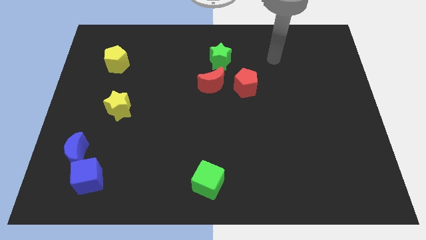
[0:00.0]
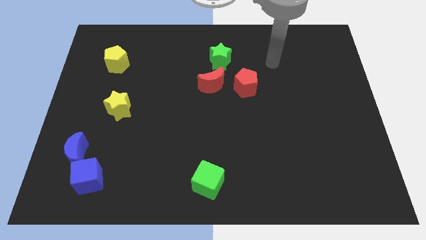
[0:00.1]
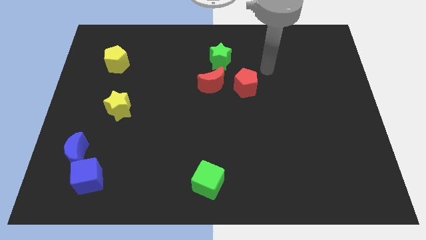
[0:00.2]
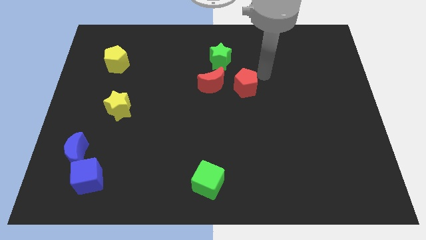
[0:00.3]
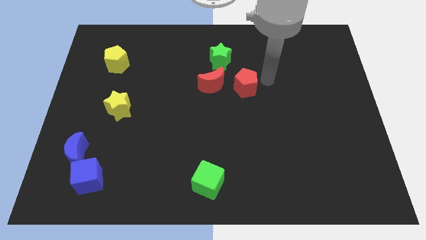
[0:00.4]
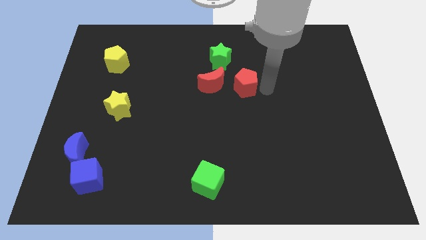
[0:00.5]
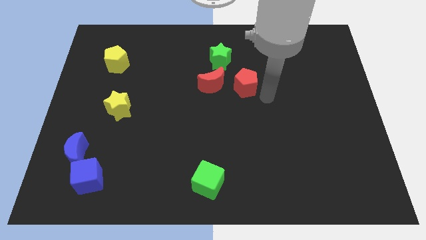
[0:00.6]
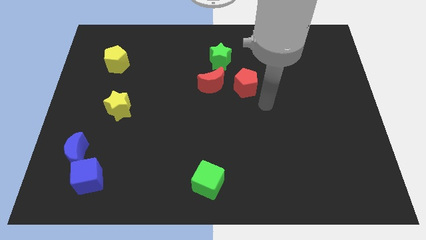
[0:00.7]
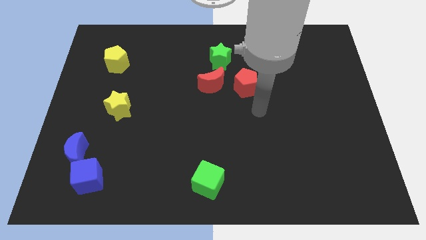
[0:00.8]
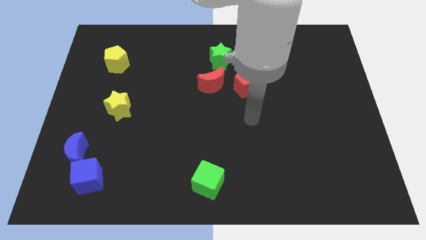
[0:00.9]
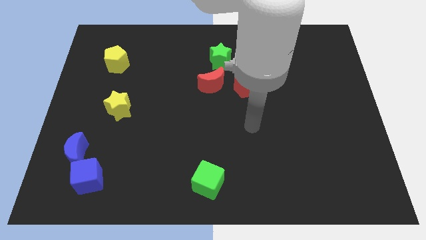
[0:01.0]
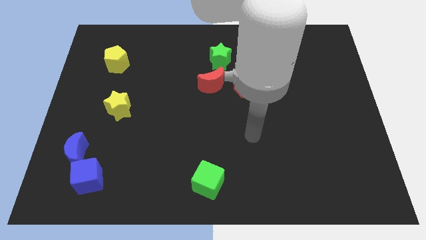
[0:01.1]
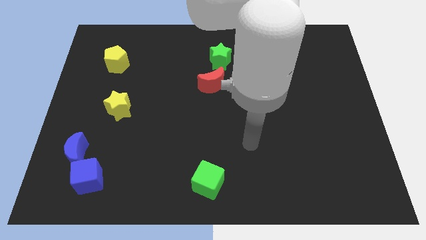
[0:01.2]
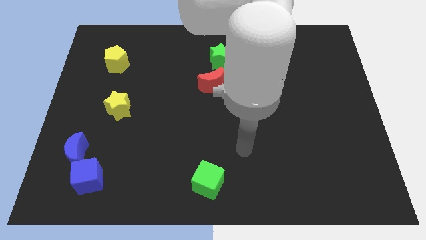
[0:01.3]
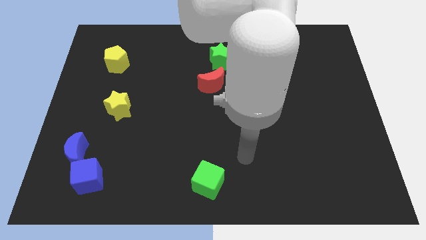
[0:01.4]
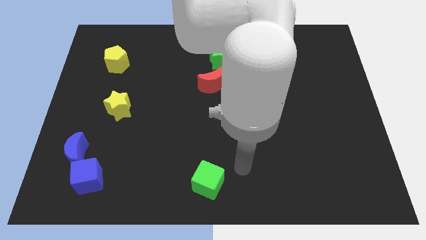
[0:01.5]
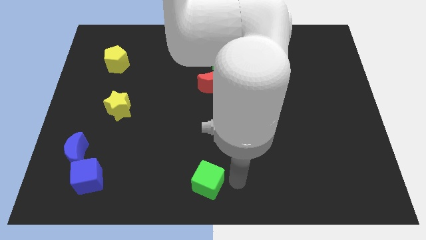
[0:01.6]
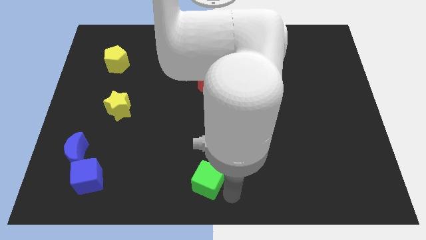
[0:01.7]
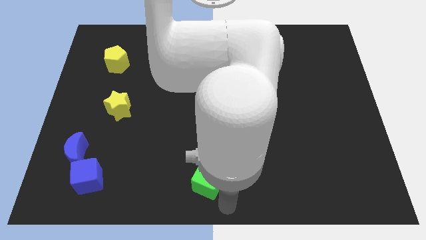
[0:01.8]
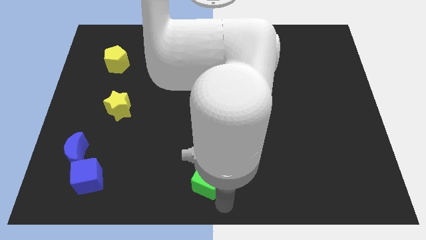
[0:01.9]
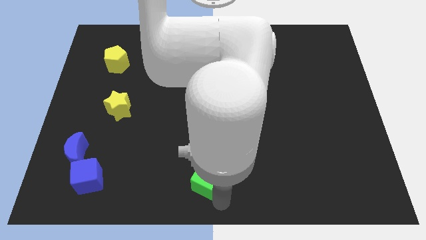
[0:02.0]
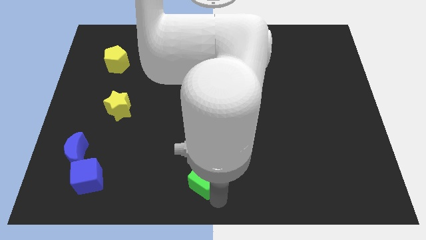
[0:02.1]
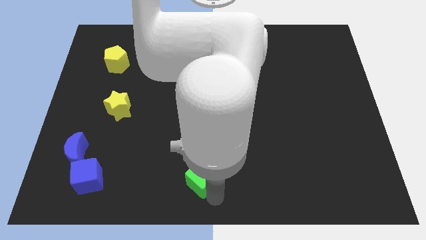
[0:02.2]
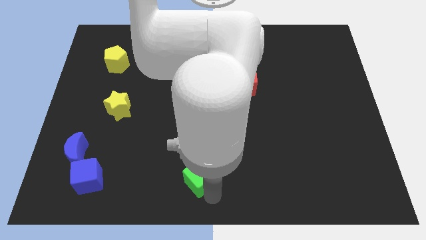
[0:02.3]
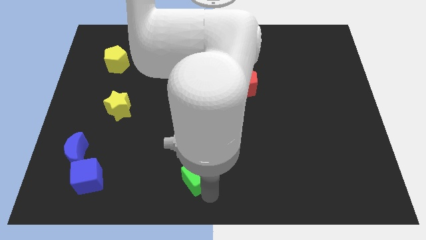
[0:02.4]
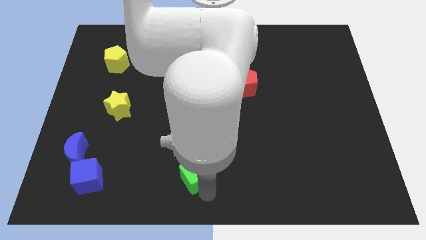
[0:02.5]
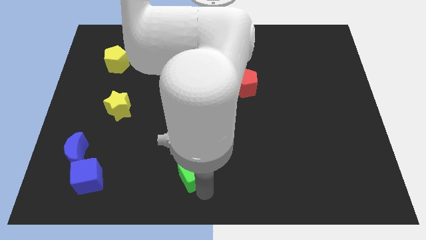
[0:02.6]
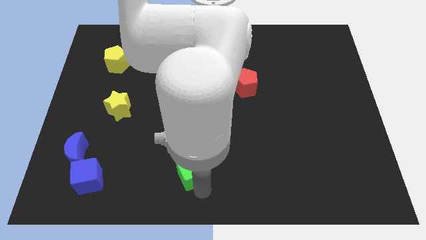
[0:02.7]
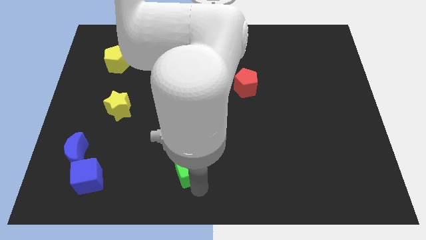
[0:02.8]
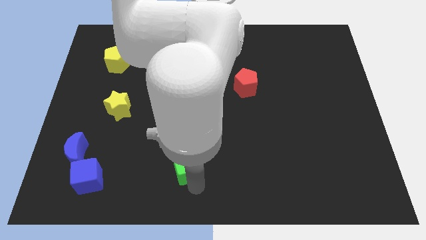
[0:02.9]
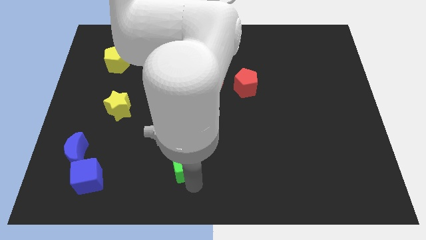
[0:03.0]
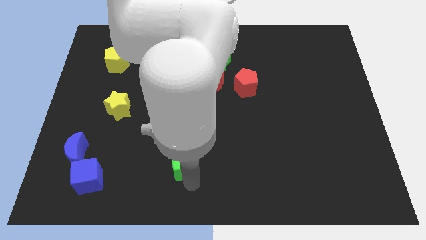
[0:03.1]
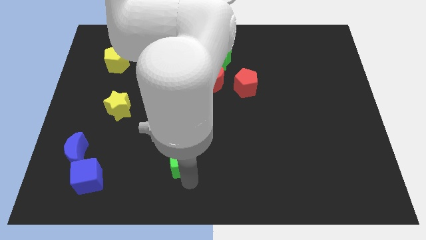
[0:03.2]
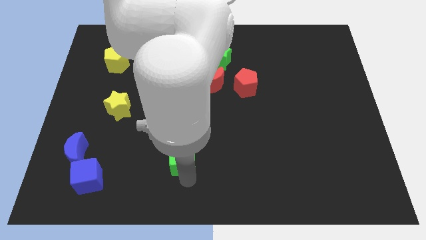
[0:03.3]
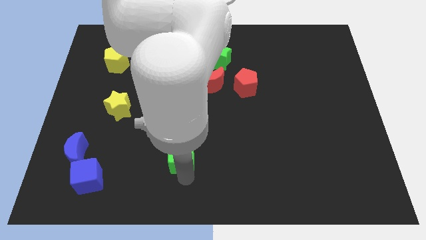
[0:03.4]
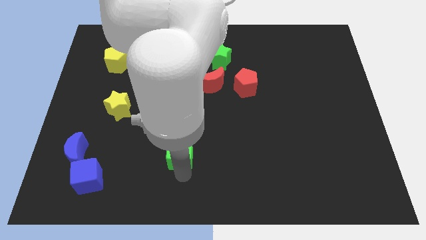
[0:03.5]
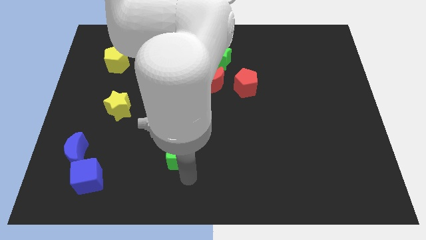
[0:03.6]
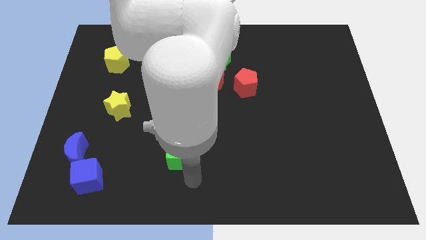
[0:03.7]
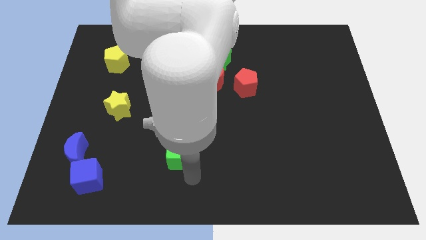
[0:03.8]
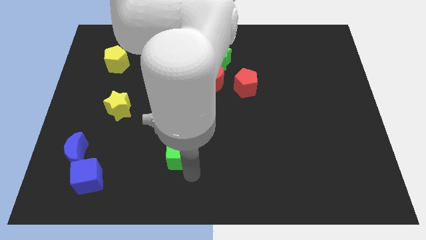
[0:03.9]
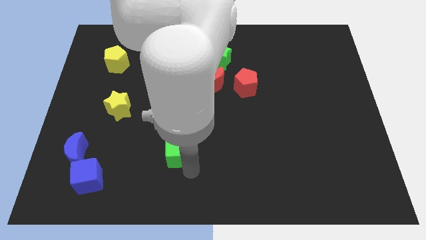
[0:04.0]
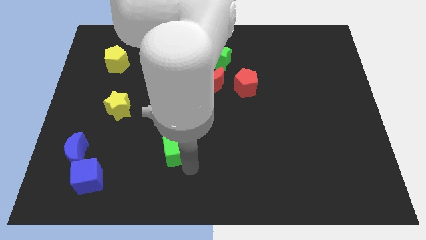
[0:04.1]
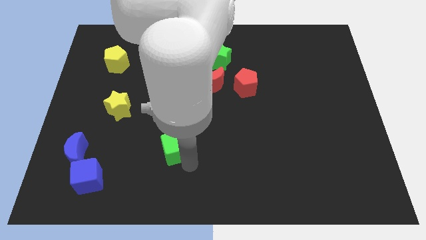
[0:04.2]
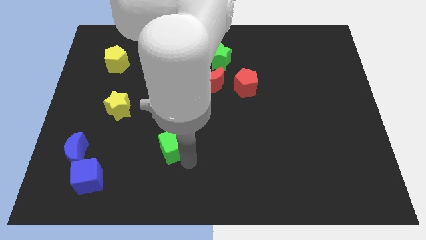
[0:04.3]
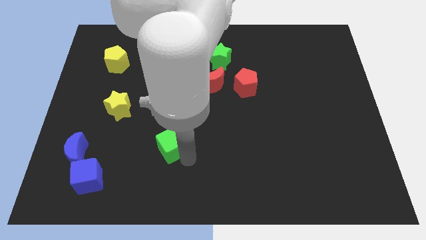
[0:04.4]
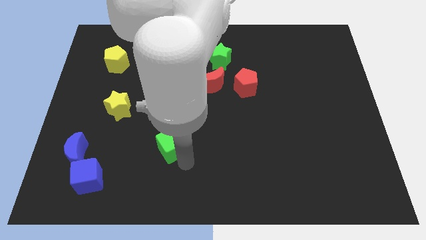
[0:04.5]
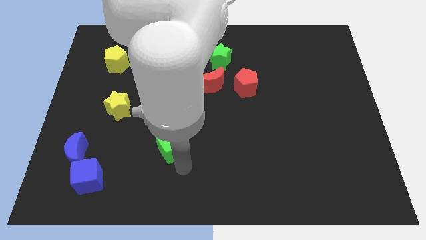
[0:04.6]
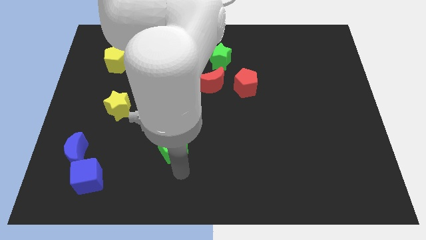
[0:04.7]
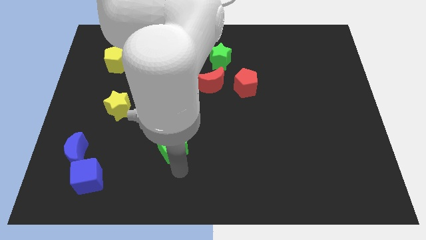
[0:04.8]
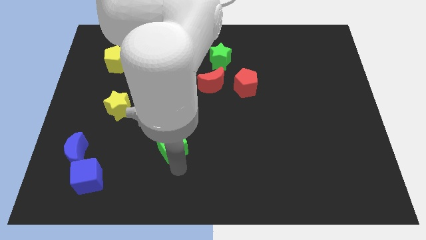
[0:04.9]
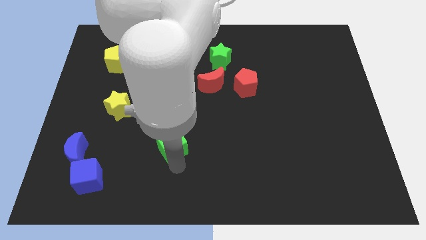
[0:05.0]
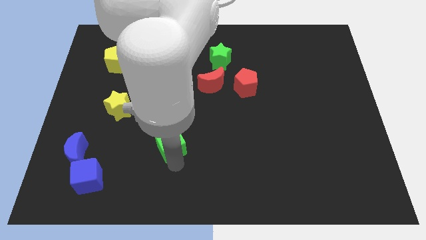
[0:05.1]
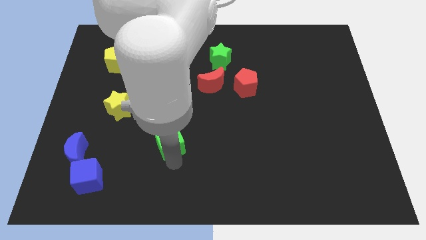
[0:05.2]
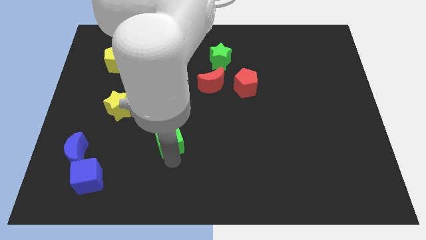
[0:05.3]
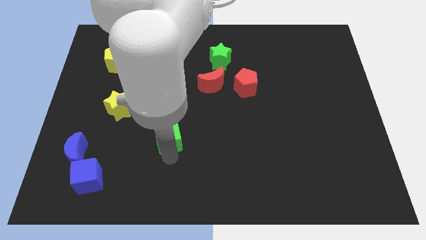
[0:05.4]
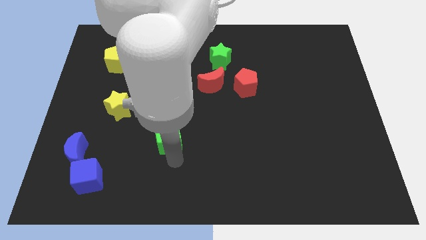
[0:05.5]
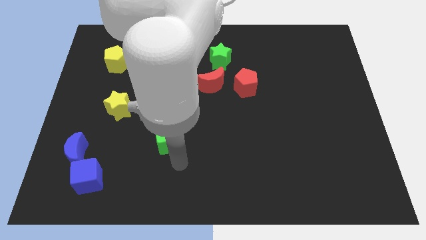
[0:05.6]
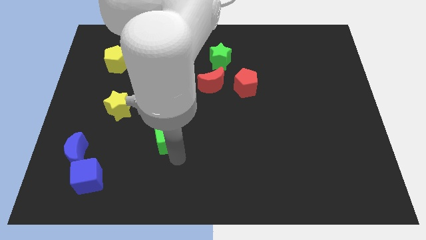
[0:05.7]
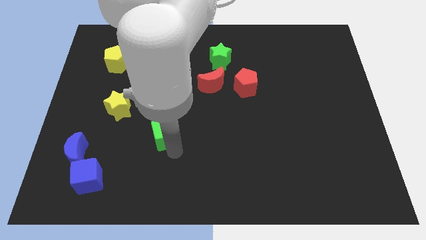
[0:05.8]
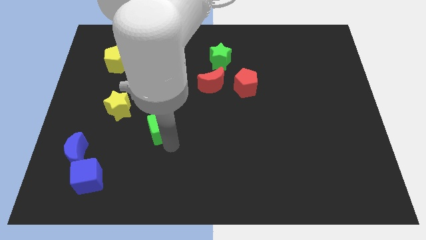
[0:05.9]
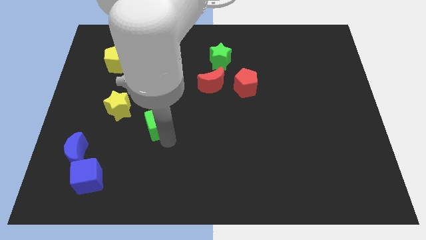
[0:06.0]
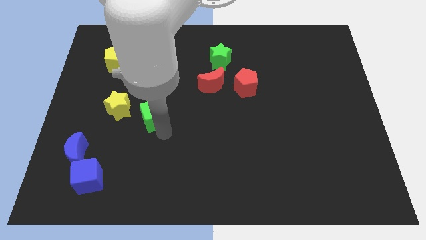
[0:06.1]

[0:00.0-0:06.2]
push the green cube upwards and left diagonally

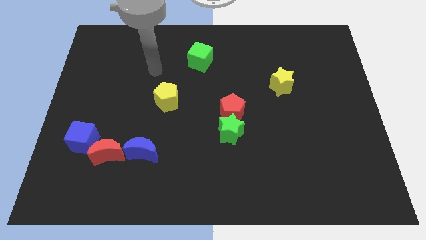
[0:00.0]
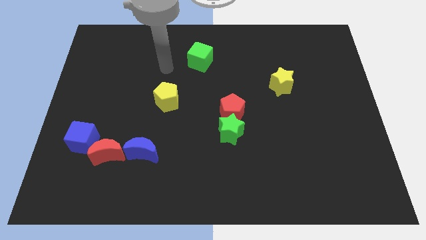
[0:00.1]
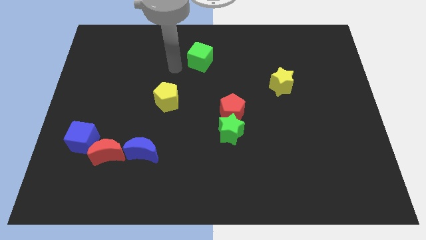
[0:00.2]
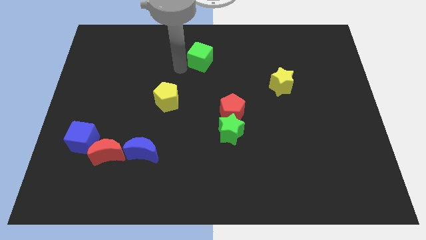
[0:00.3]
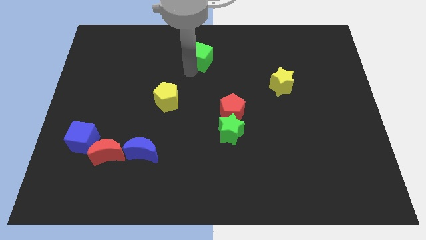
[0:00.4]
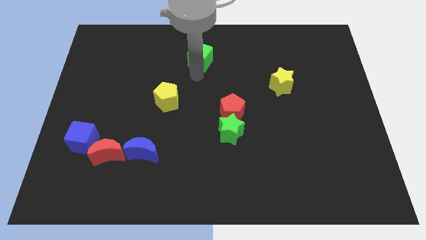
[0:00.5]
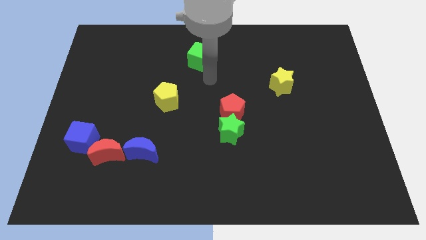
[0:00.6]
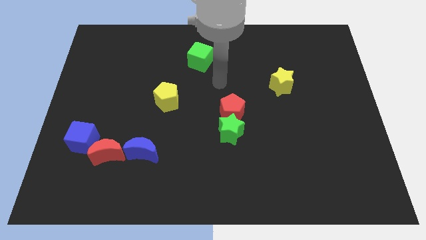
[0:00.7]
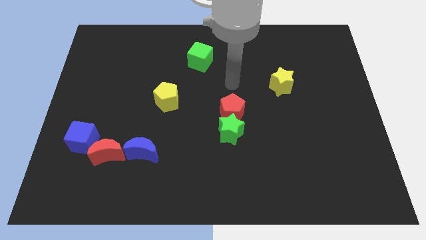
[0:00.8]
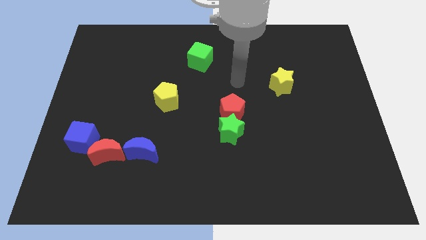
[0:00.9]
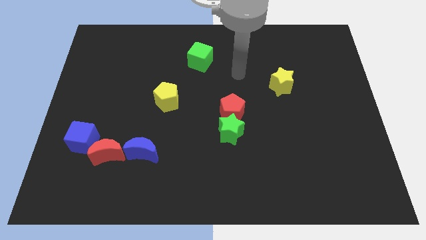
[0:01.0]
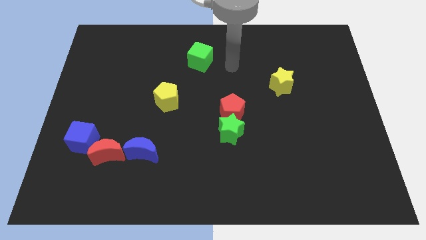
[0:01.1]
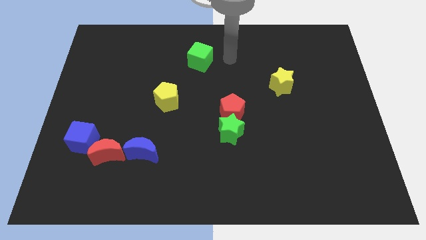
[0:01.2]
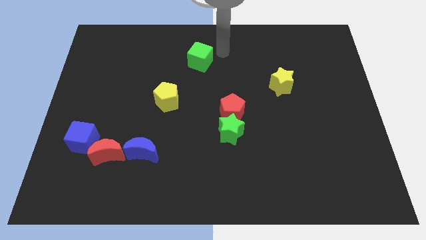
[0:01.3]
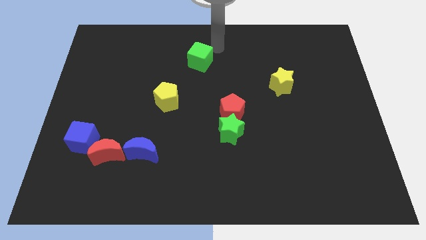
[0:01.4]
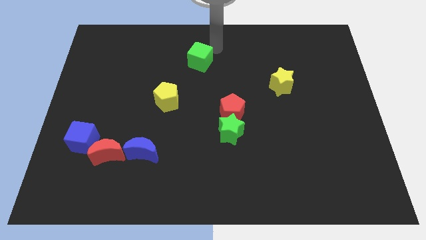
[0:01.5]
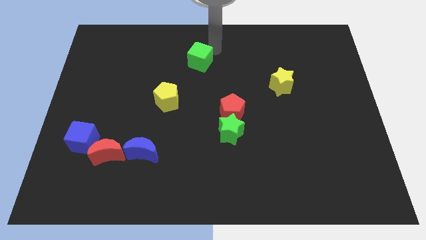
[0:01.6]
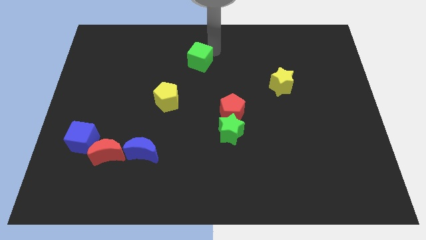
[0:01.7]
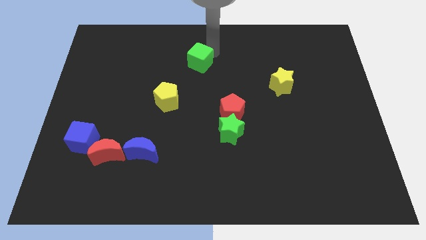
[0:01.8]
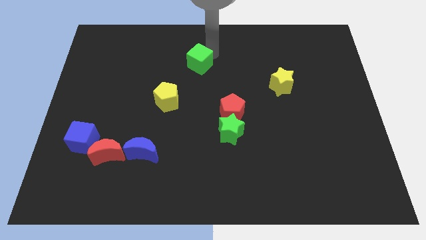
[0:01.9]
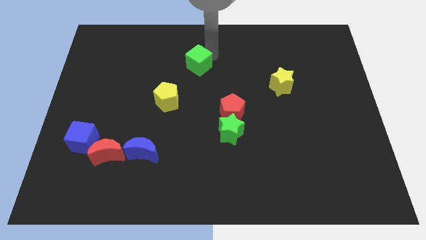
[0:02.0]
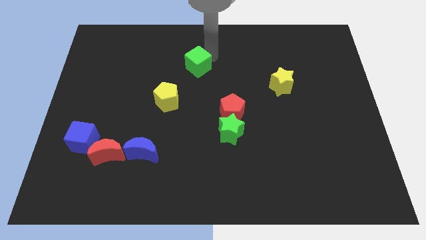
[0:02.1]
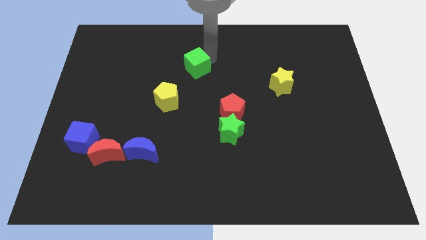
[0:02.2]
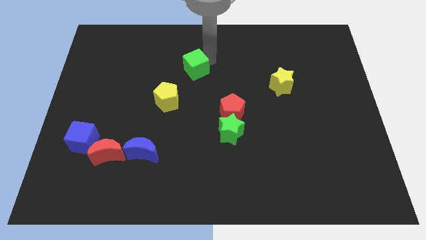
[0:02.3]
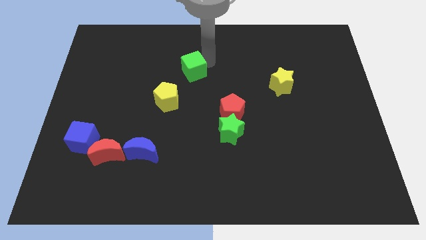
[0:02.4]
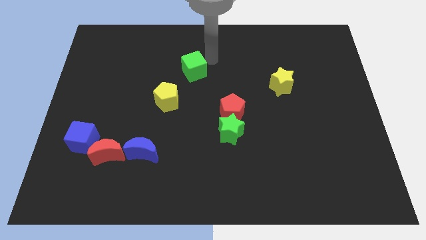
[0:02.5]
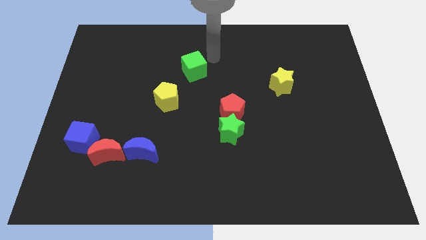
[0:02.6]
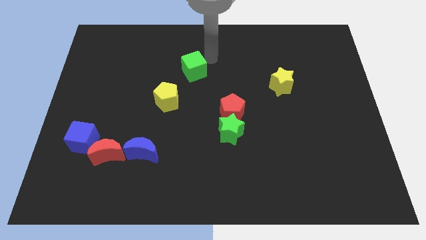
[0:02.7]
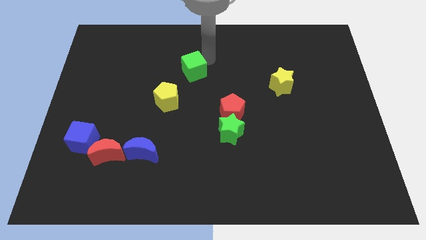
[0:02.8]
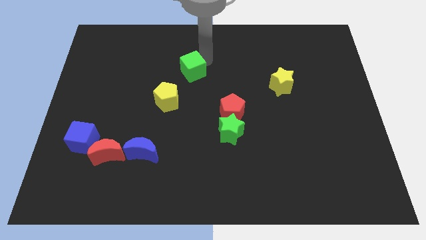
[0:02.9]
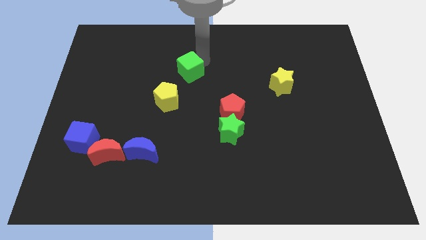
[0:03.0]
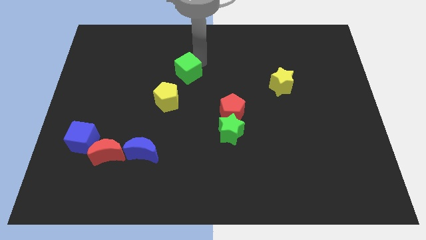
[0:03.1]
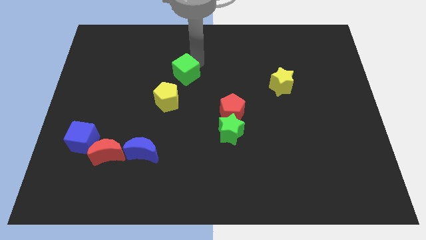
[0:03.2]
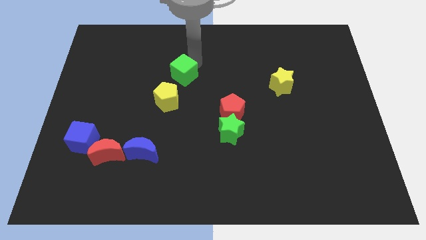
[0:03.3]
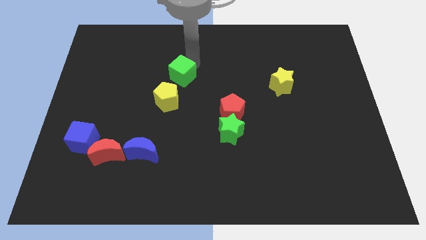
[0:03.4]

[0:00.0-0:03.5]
slightly slide the green cube down and left
